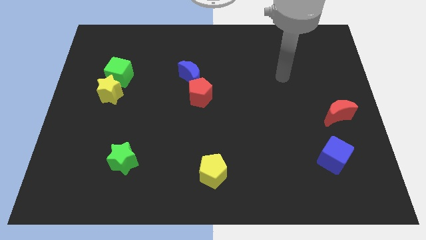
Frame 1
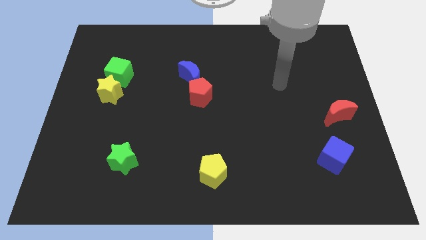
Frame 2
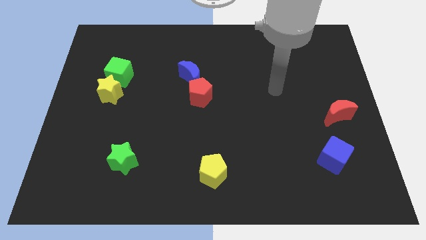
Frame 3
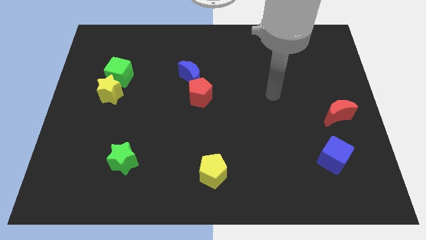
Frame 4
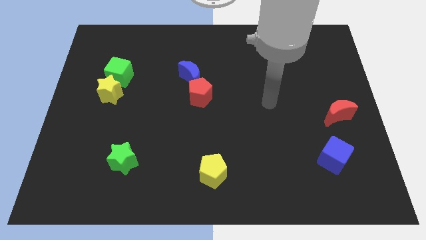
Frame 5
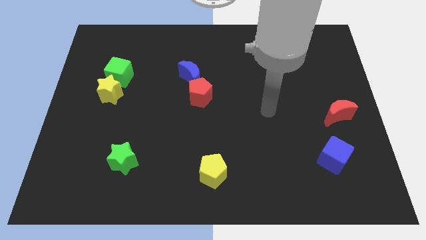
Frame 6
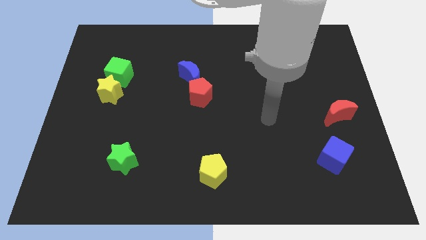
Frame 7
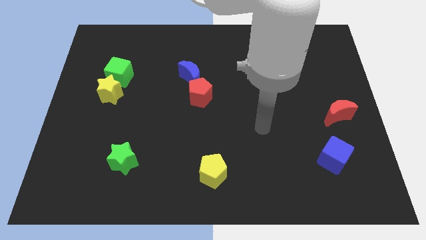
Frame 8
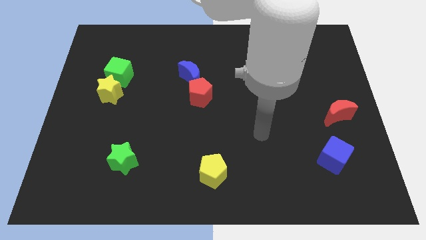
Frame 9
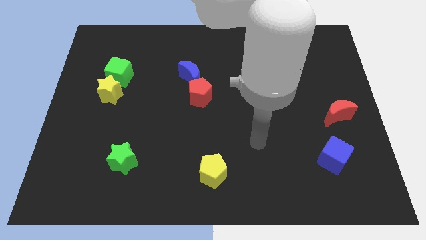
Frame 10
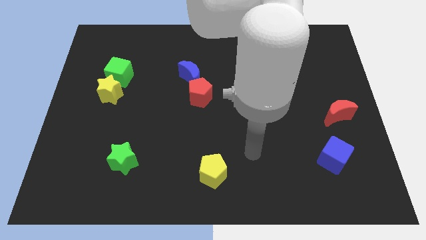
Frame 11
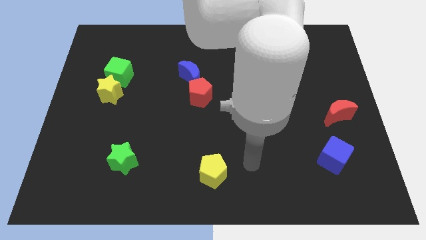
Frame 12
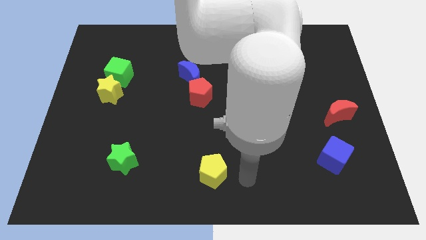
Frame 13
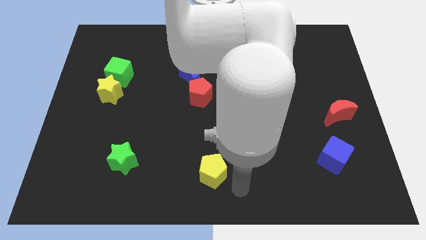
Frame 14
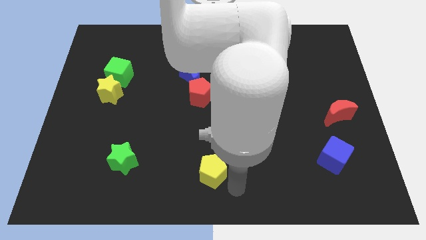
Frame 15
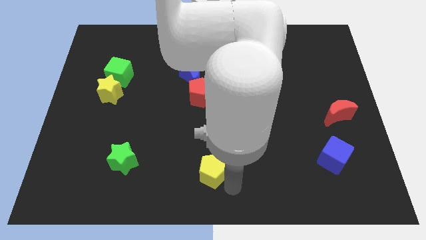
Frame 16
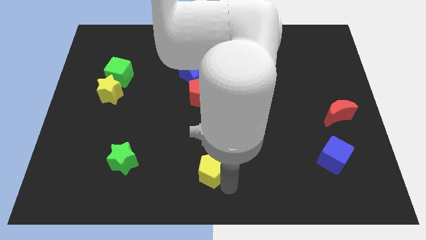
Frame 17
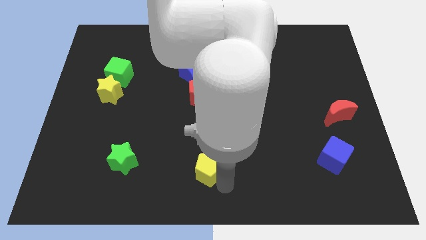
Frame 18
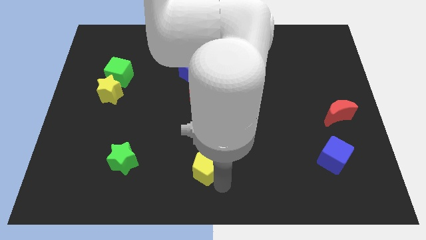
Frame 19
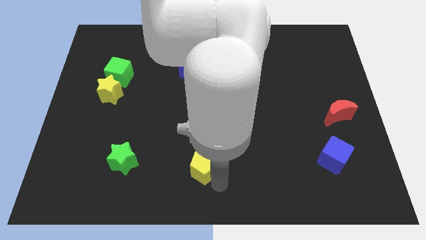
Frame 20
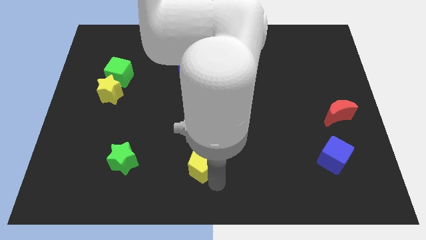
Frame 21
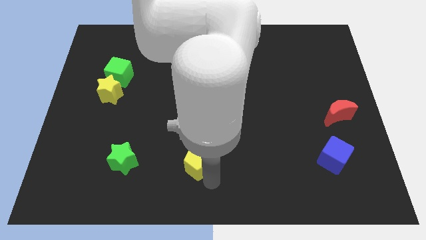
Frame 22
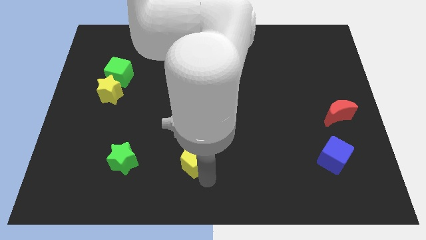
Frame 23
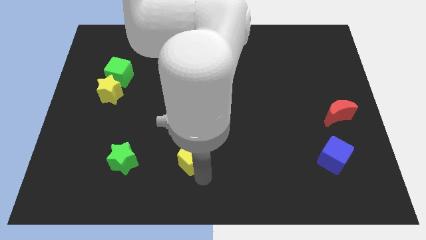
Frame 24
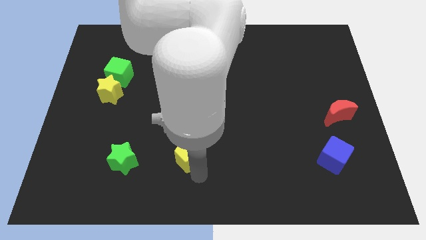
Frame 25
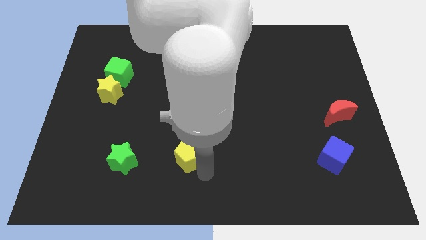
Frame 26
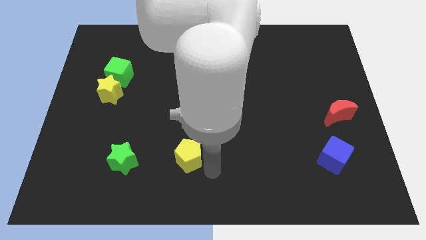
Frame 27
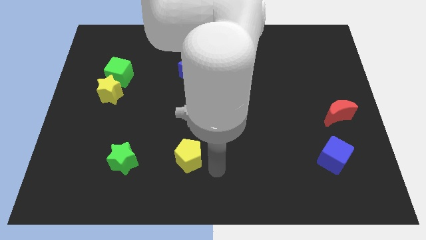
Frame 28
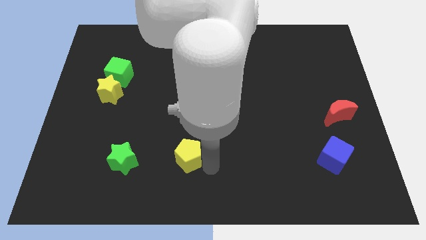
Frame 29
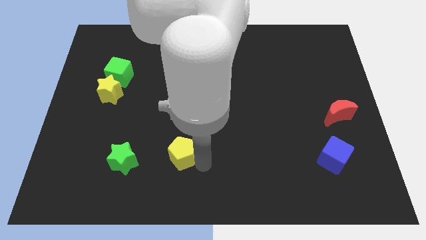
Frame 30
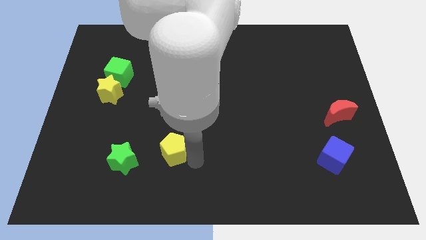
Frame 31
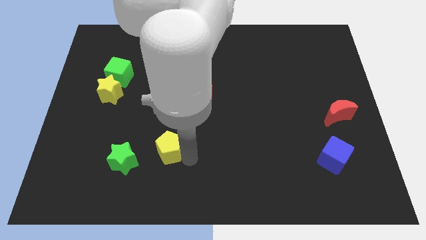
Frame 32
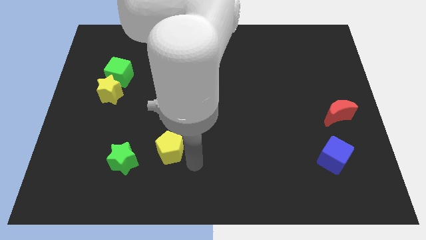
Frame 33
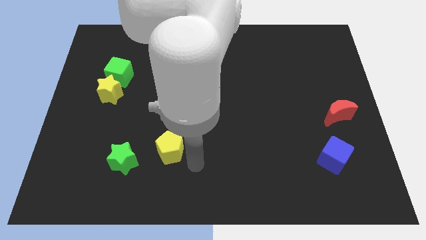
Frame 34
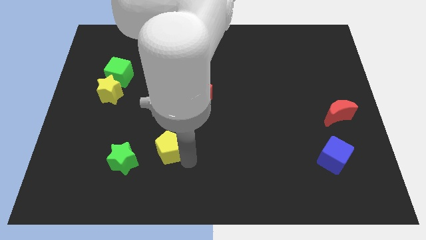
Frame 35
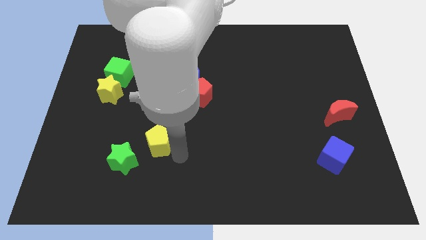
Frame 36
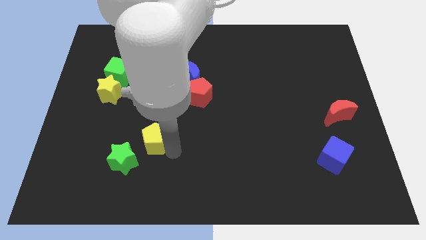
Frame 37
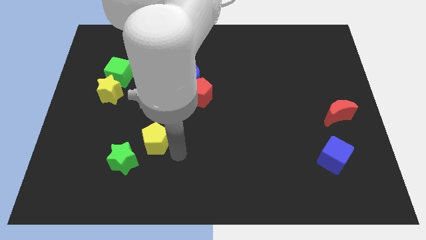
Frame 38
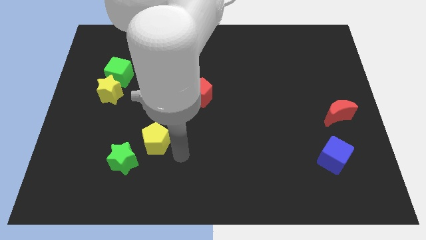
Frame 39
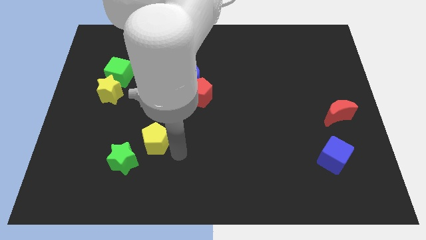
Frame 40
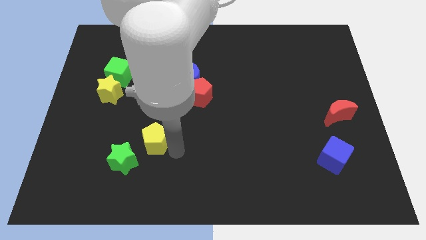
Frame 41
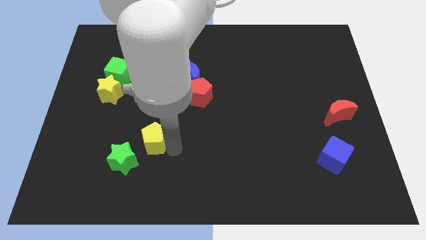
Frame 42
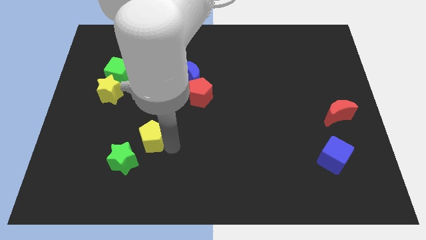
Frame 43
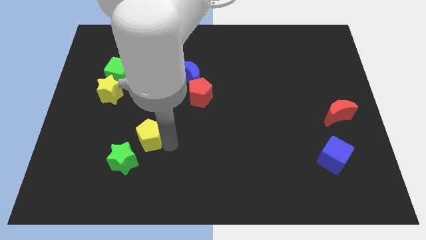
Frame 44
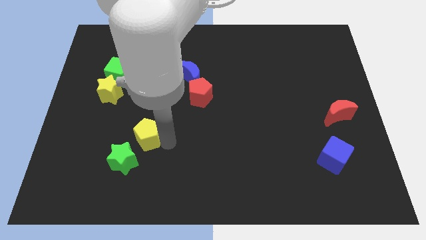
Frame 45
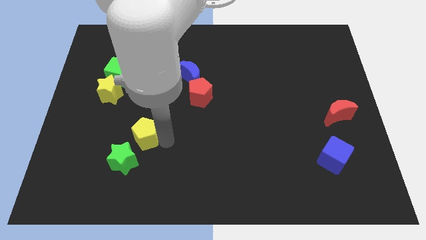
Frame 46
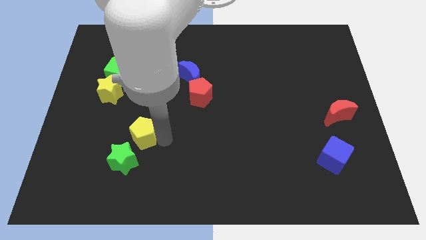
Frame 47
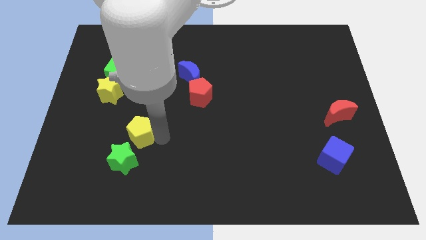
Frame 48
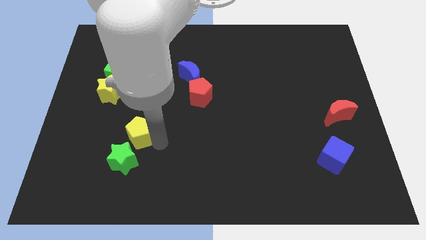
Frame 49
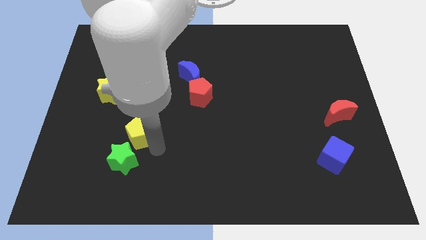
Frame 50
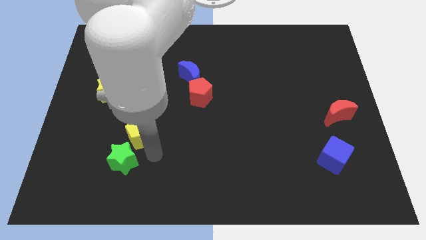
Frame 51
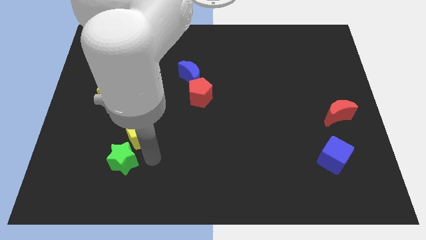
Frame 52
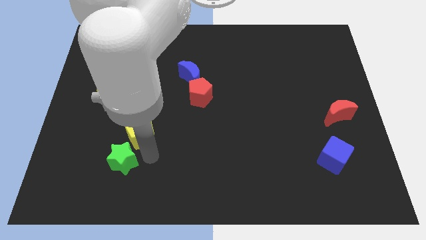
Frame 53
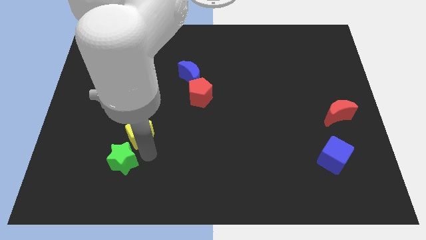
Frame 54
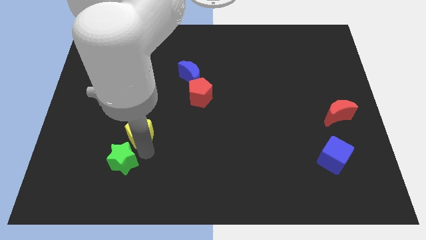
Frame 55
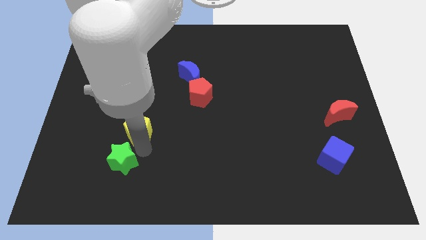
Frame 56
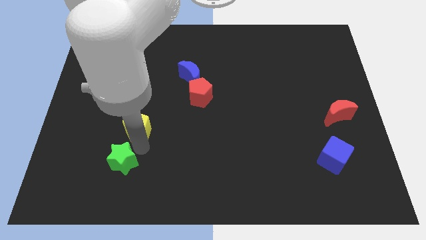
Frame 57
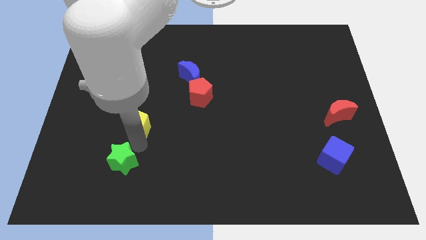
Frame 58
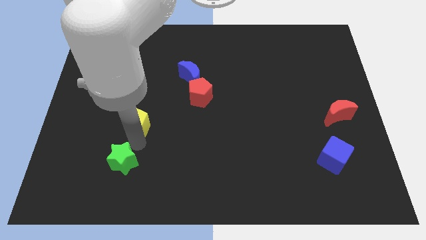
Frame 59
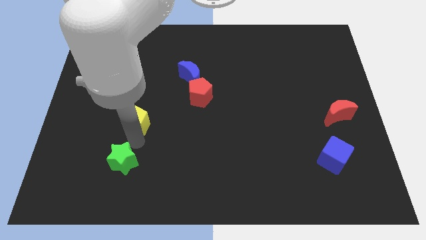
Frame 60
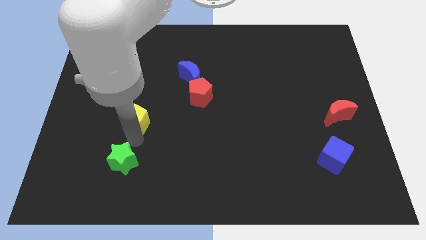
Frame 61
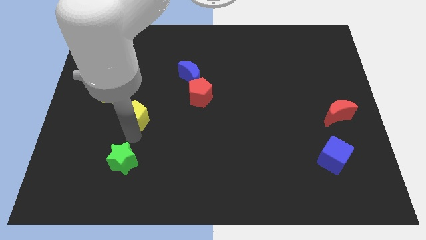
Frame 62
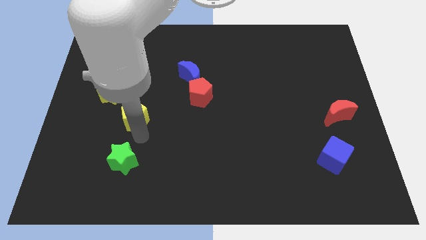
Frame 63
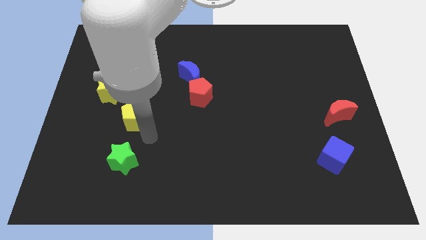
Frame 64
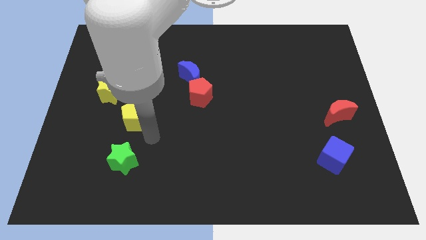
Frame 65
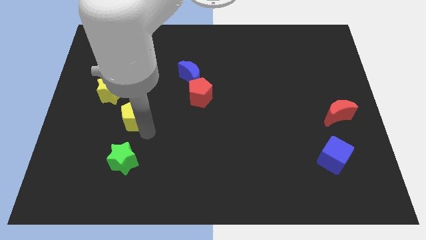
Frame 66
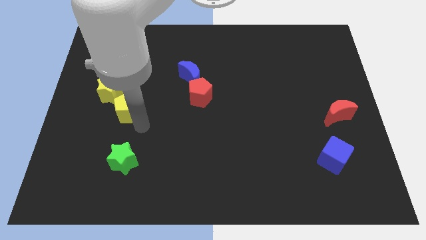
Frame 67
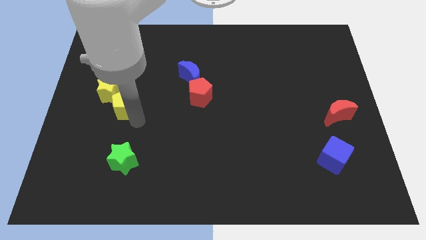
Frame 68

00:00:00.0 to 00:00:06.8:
move the yellow pentagon next to the yellow star

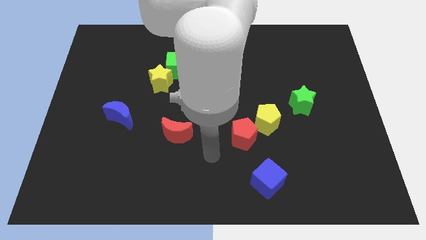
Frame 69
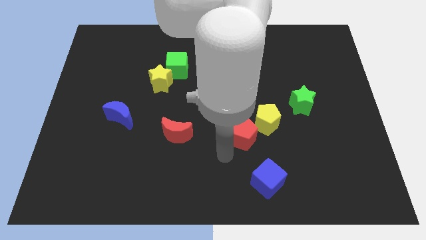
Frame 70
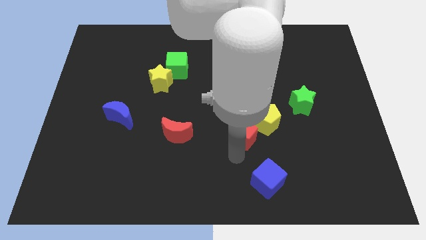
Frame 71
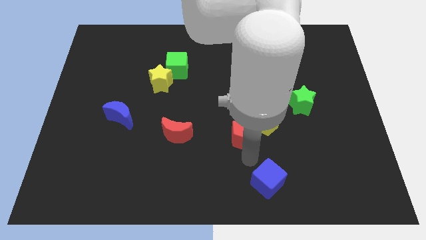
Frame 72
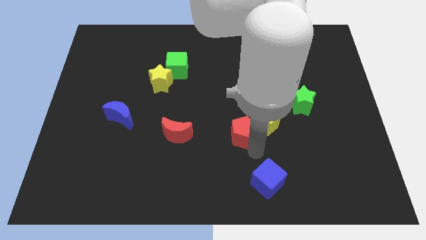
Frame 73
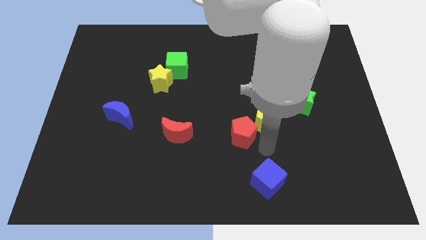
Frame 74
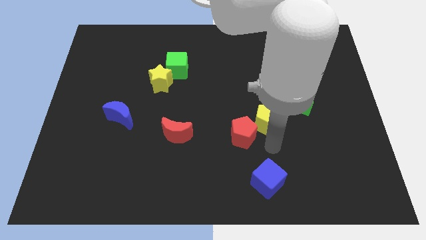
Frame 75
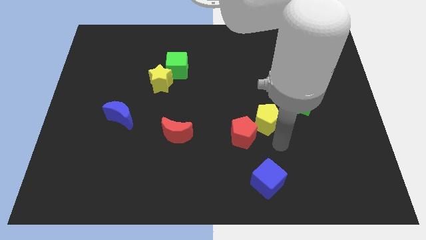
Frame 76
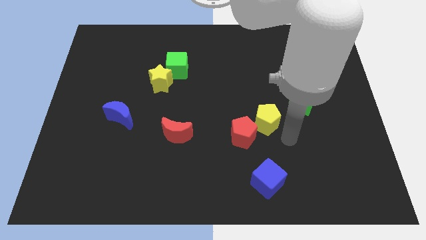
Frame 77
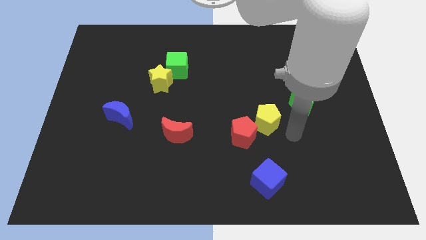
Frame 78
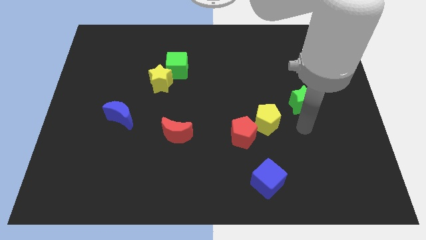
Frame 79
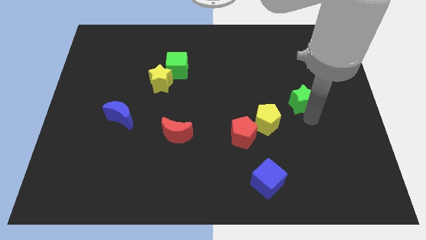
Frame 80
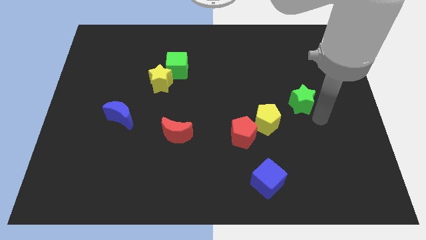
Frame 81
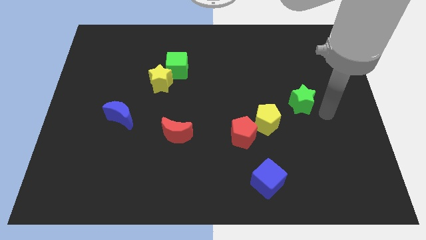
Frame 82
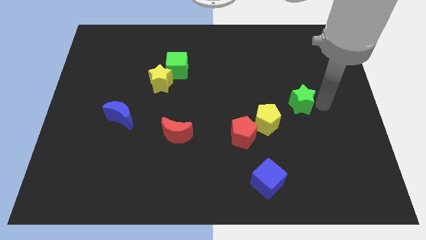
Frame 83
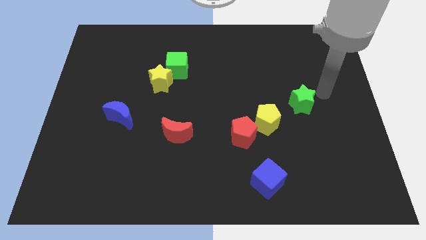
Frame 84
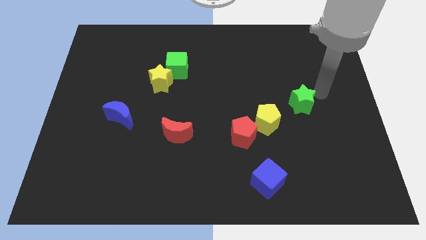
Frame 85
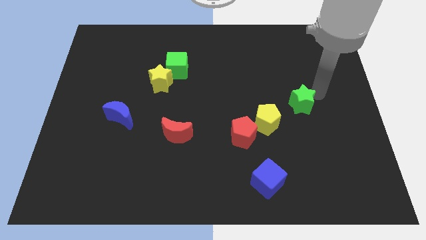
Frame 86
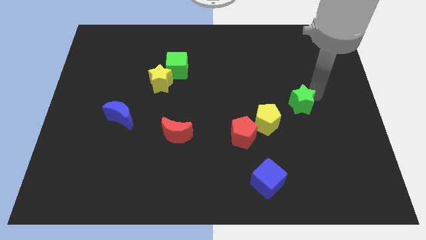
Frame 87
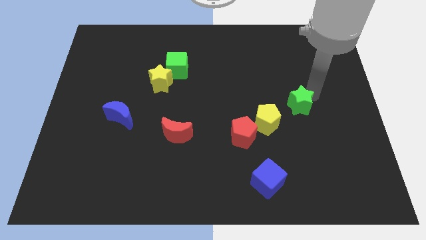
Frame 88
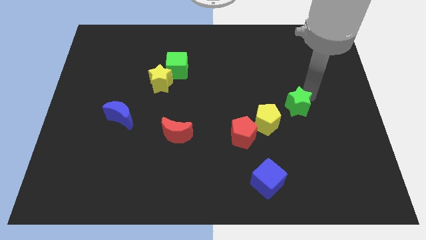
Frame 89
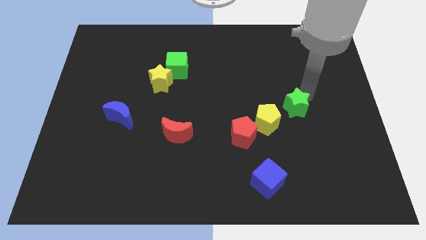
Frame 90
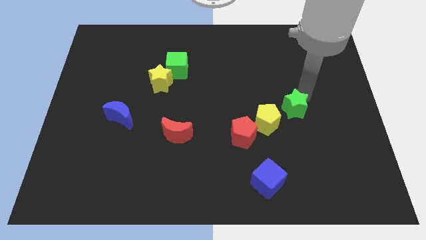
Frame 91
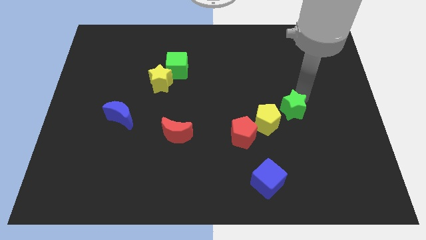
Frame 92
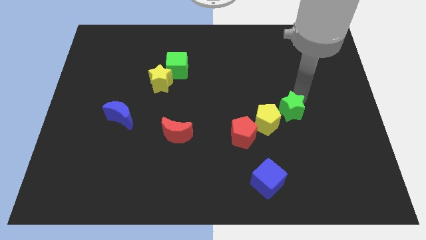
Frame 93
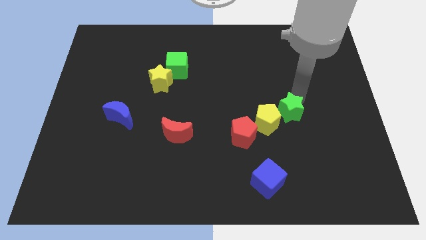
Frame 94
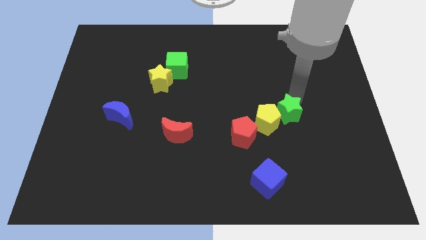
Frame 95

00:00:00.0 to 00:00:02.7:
slide the green star to the yellow pentagon
